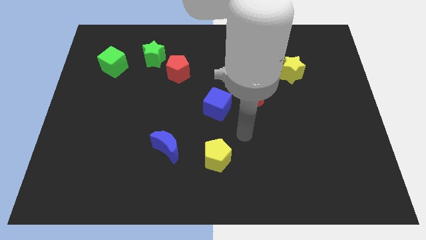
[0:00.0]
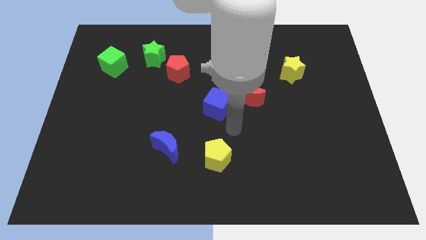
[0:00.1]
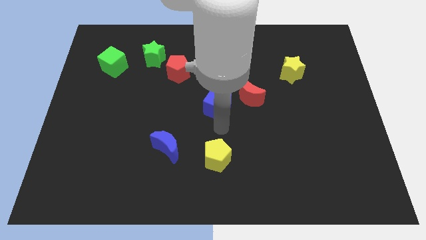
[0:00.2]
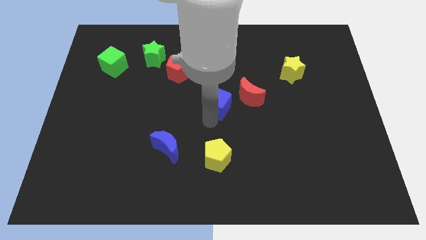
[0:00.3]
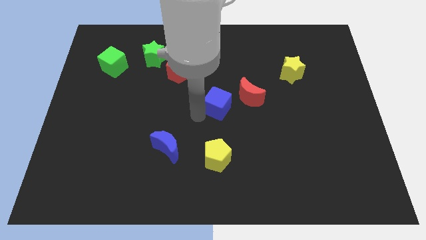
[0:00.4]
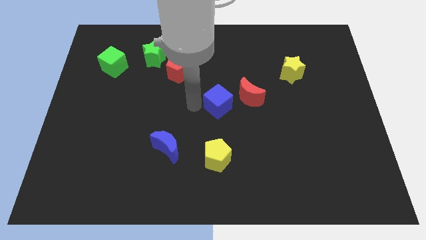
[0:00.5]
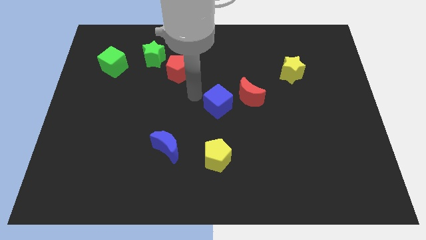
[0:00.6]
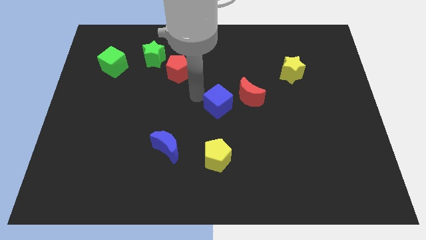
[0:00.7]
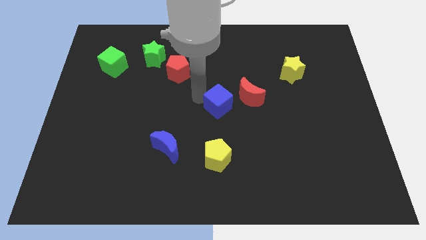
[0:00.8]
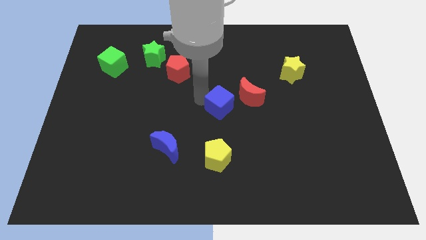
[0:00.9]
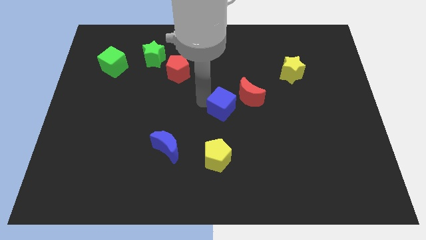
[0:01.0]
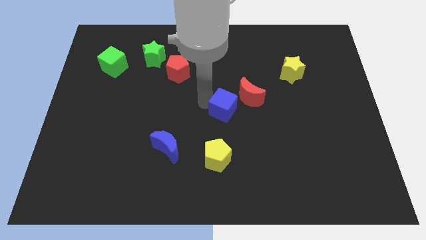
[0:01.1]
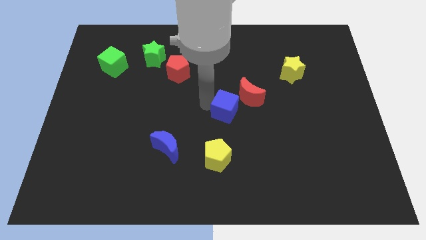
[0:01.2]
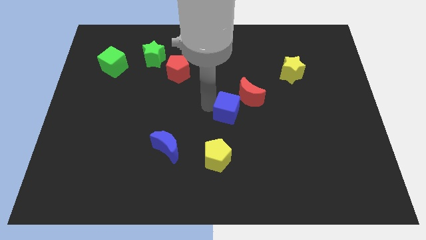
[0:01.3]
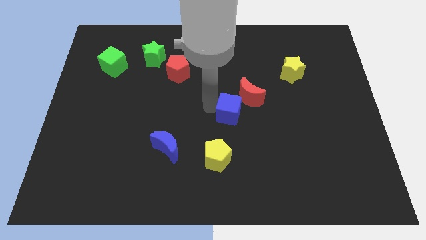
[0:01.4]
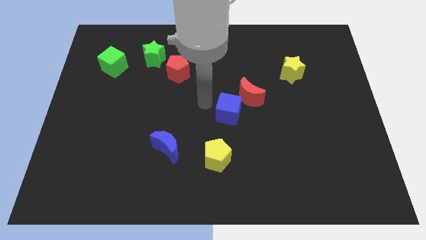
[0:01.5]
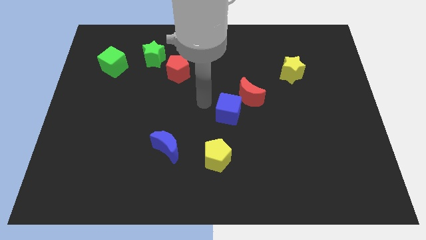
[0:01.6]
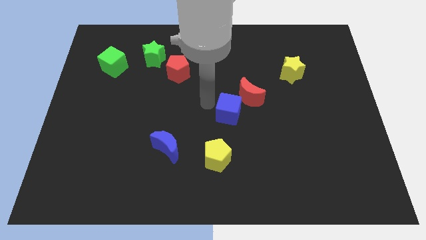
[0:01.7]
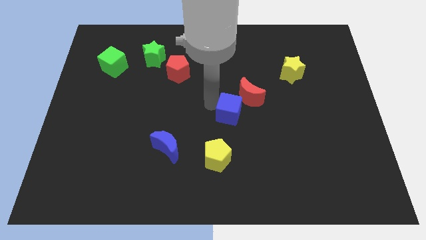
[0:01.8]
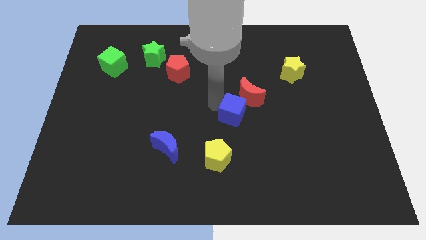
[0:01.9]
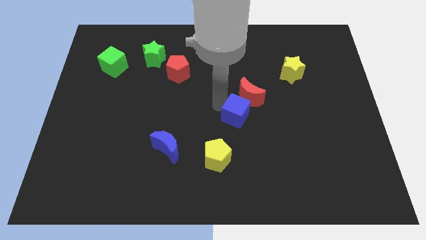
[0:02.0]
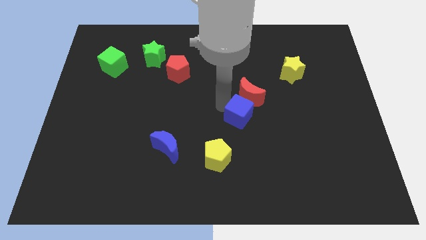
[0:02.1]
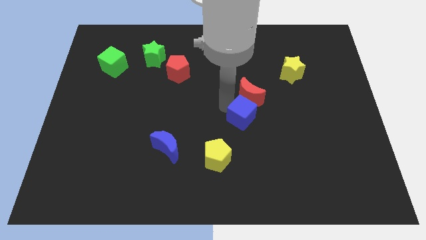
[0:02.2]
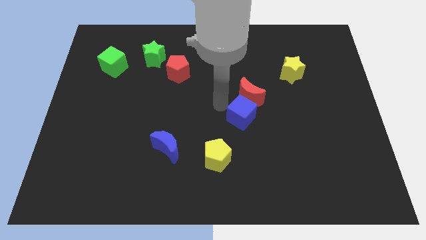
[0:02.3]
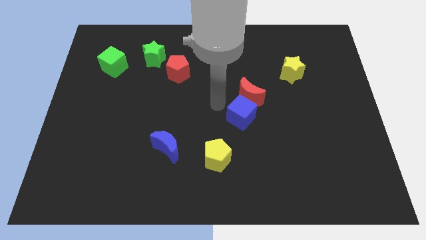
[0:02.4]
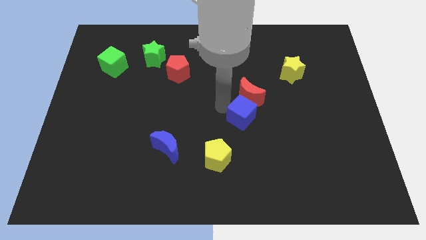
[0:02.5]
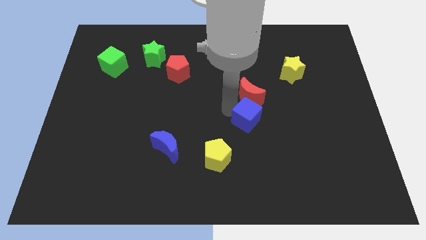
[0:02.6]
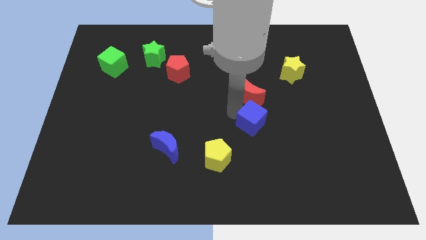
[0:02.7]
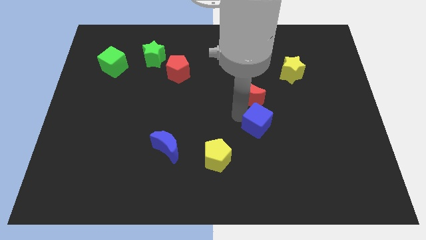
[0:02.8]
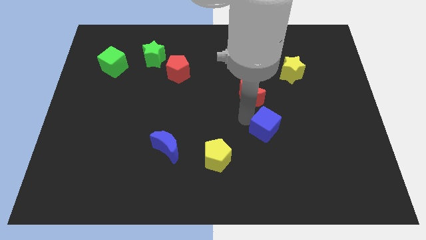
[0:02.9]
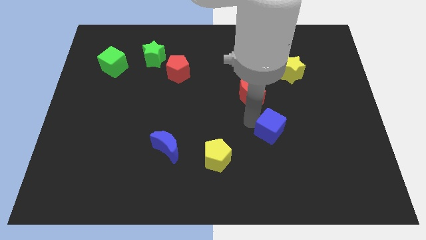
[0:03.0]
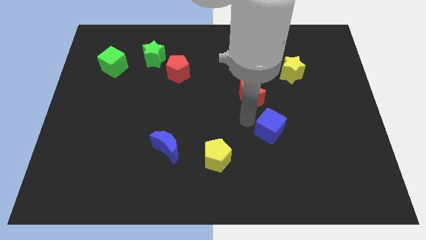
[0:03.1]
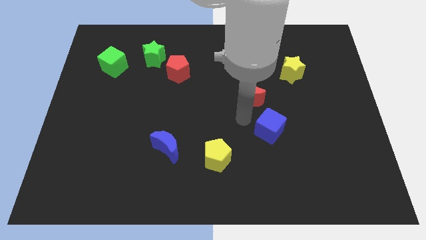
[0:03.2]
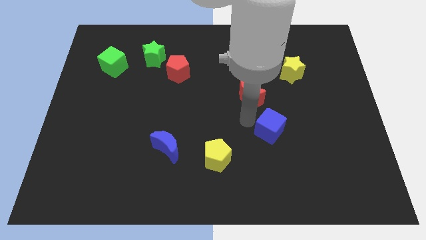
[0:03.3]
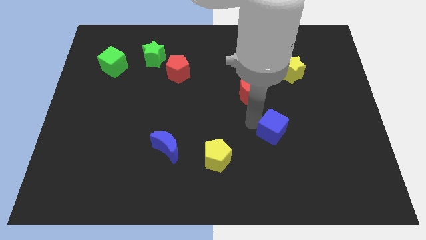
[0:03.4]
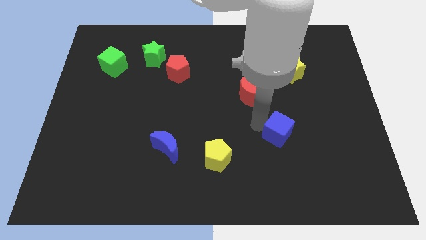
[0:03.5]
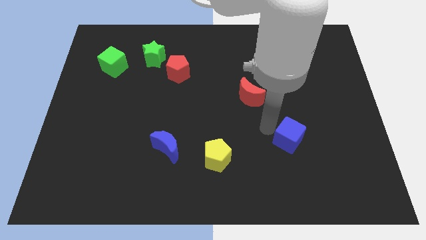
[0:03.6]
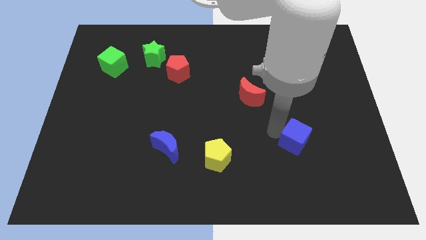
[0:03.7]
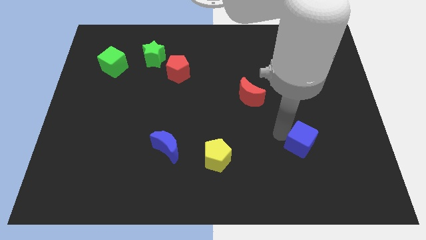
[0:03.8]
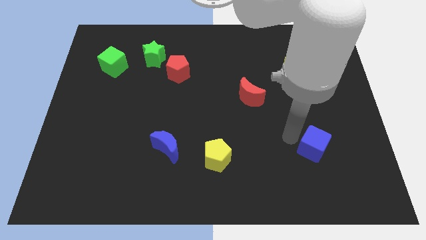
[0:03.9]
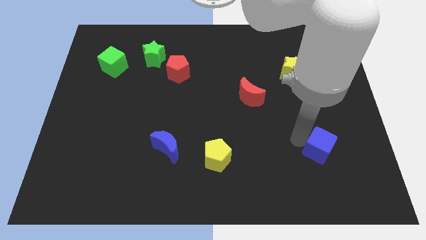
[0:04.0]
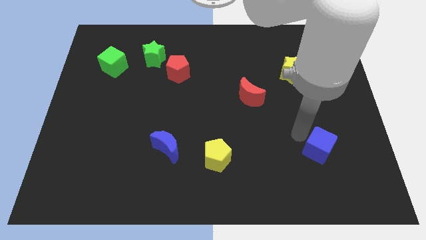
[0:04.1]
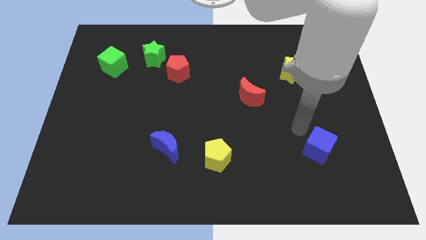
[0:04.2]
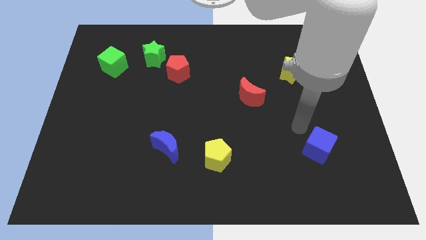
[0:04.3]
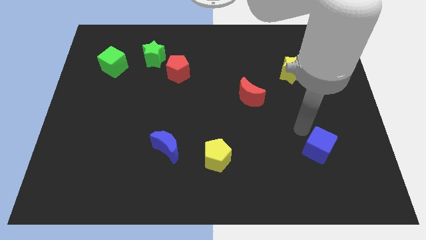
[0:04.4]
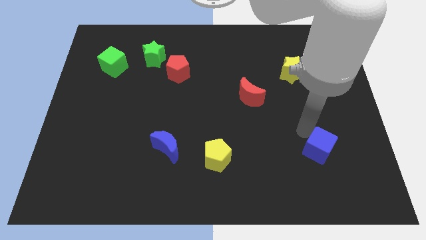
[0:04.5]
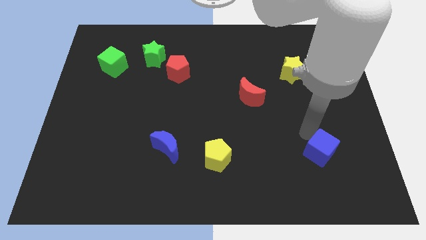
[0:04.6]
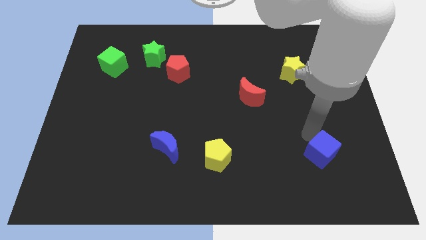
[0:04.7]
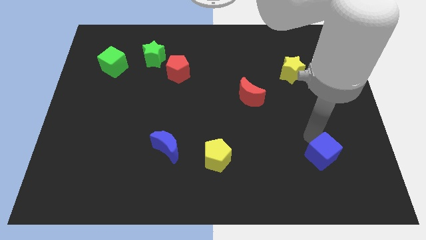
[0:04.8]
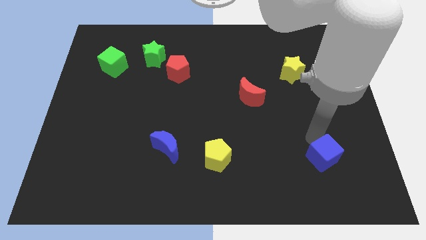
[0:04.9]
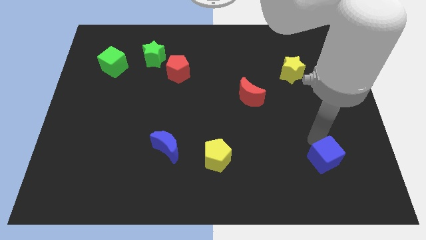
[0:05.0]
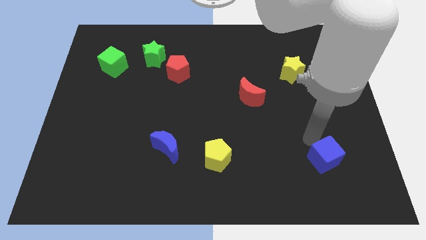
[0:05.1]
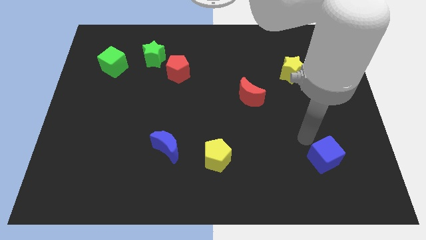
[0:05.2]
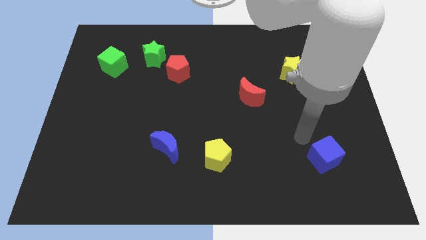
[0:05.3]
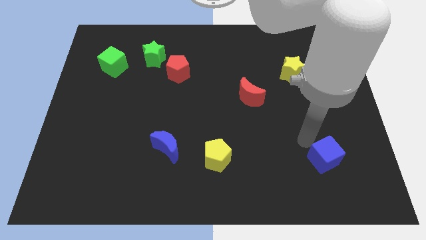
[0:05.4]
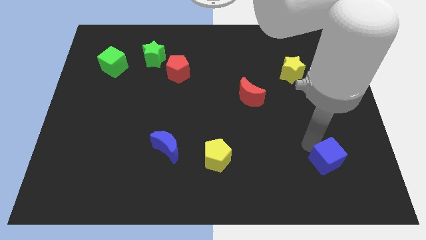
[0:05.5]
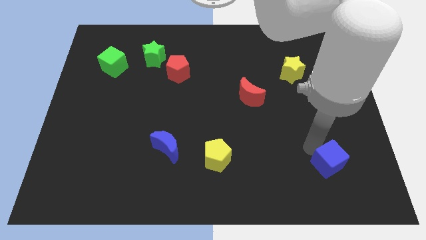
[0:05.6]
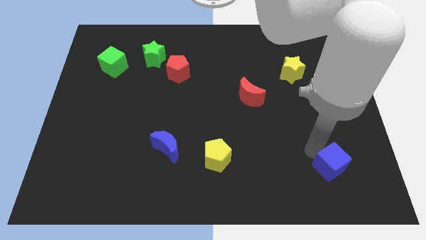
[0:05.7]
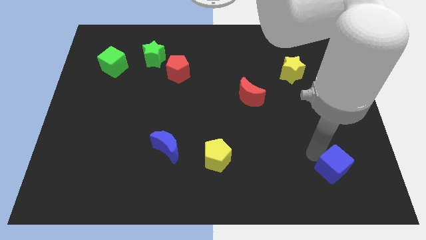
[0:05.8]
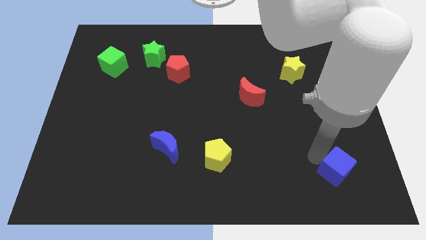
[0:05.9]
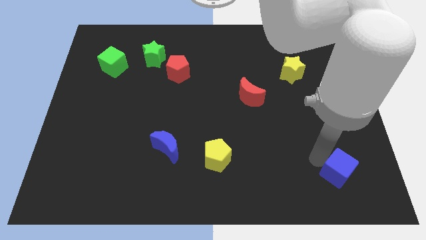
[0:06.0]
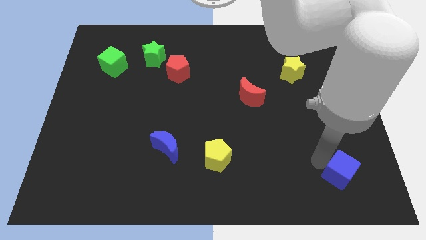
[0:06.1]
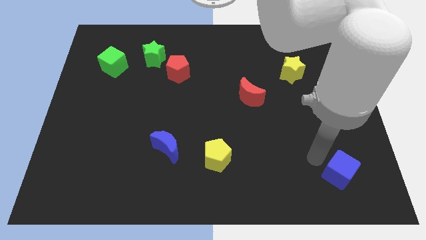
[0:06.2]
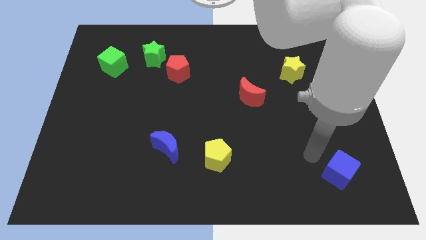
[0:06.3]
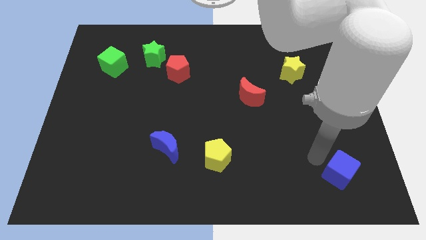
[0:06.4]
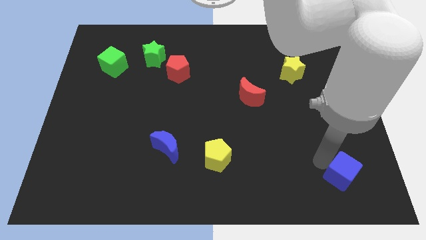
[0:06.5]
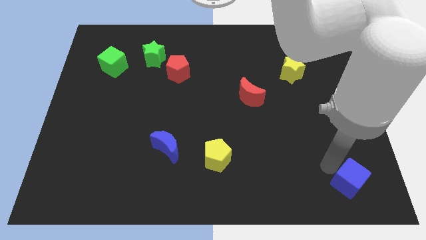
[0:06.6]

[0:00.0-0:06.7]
push the blue cube to the bottom right

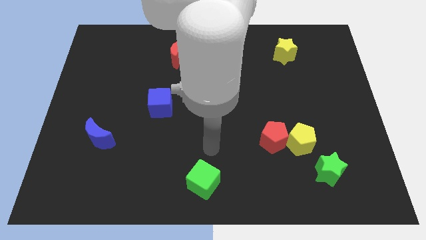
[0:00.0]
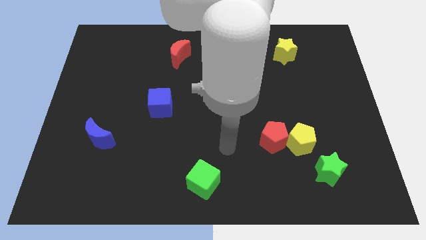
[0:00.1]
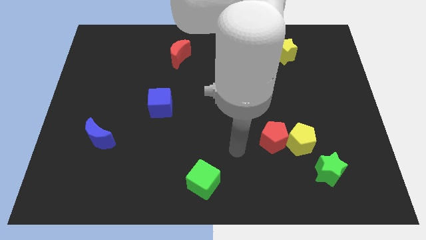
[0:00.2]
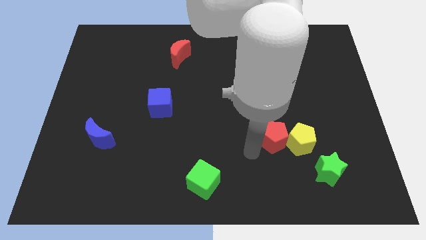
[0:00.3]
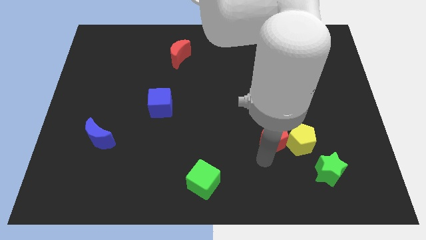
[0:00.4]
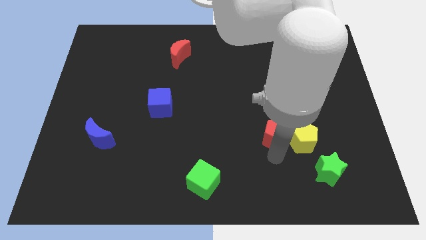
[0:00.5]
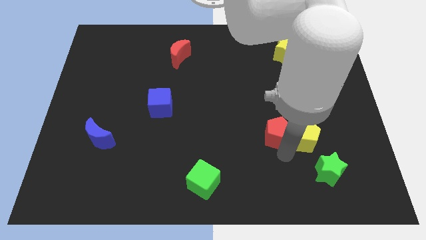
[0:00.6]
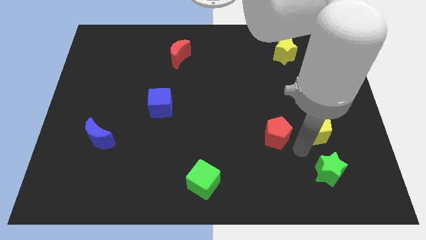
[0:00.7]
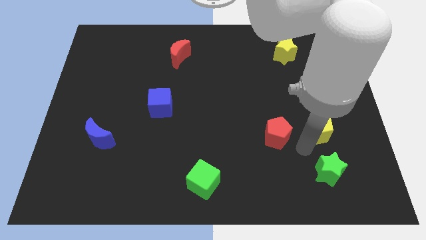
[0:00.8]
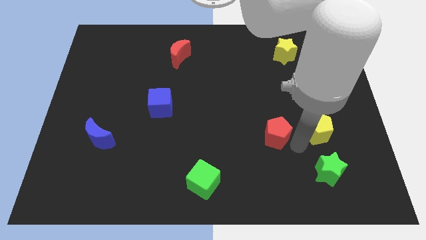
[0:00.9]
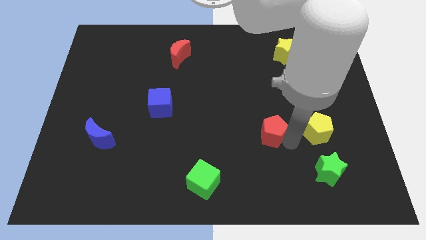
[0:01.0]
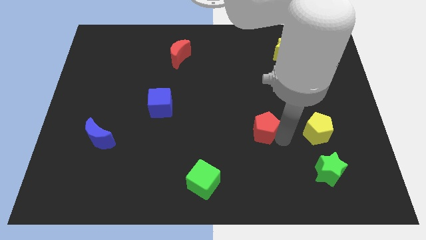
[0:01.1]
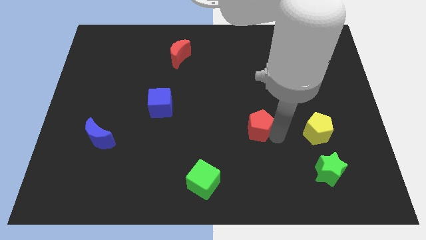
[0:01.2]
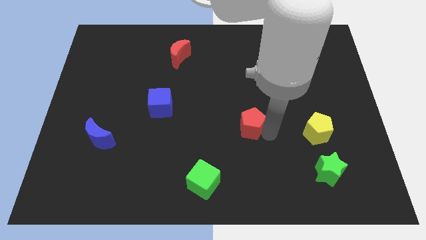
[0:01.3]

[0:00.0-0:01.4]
push the red pentagon to the middle of the board
